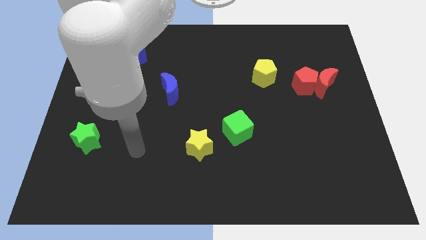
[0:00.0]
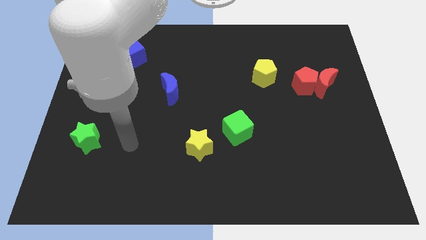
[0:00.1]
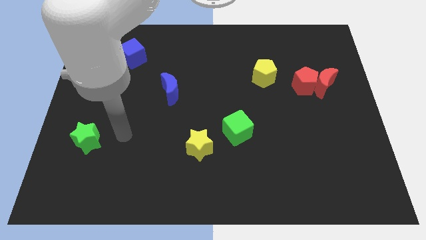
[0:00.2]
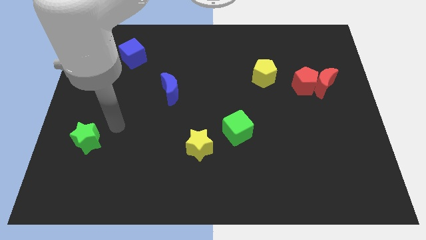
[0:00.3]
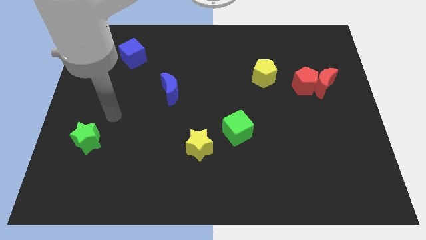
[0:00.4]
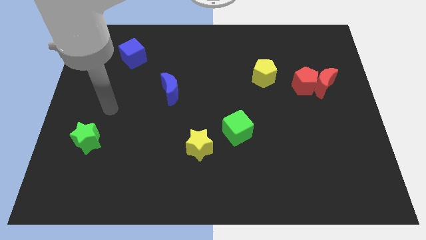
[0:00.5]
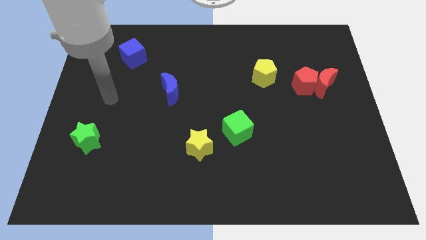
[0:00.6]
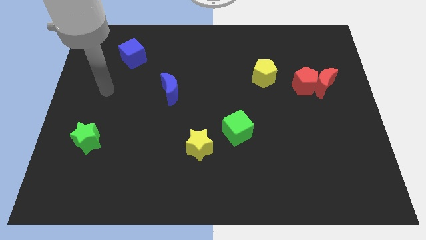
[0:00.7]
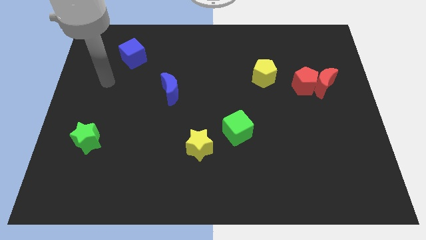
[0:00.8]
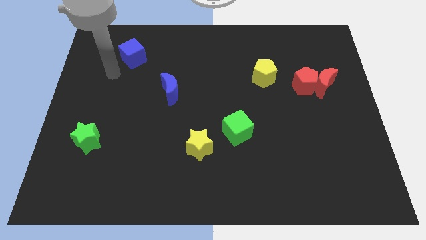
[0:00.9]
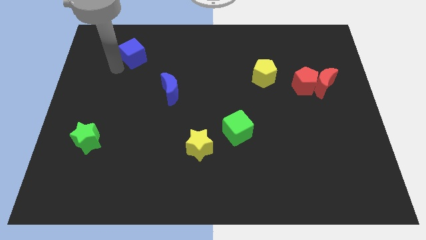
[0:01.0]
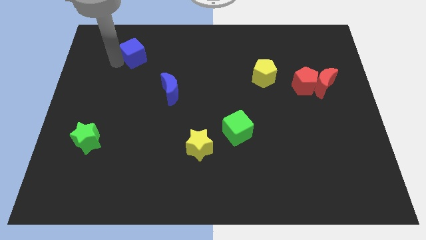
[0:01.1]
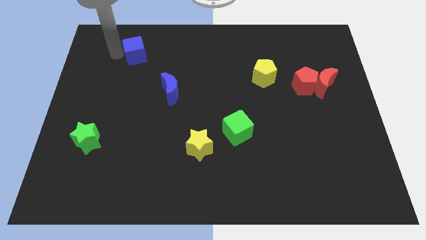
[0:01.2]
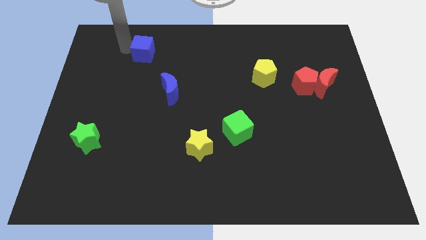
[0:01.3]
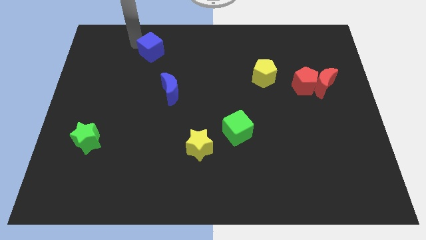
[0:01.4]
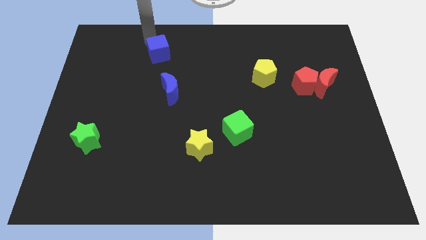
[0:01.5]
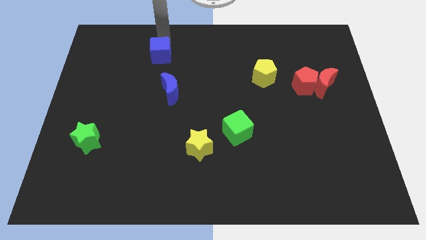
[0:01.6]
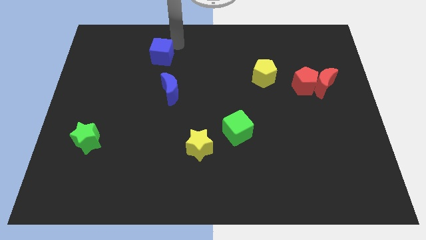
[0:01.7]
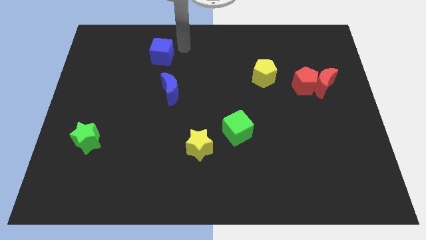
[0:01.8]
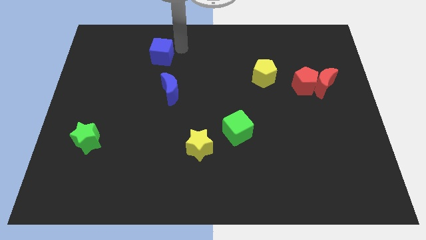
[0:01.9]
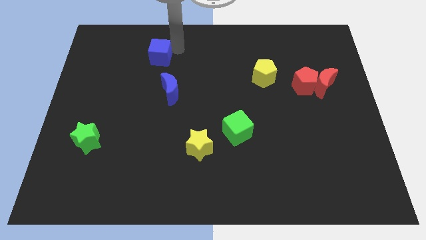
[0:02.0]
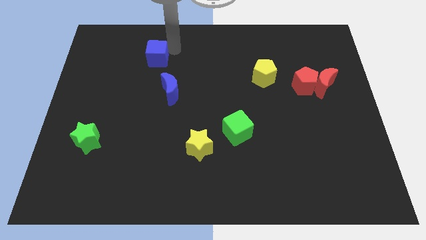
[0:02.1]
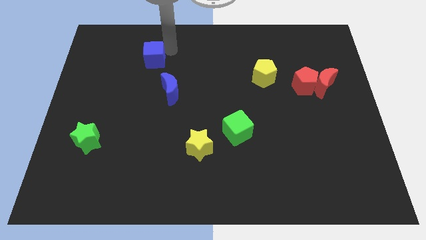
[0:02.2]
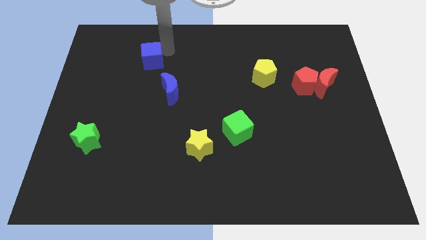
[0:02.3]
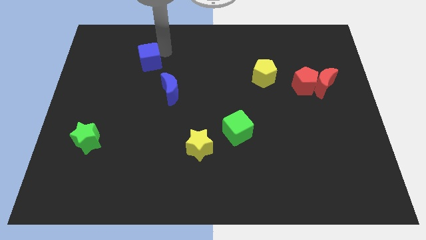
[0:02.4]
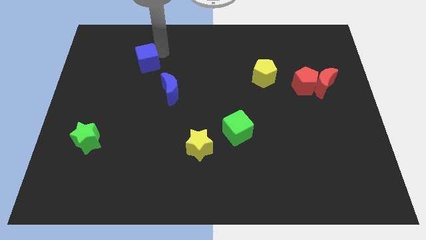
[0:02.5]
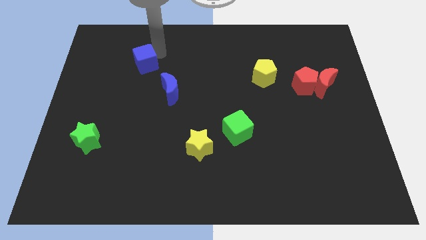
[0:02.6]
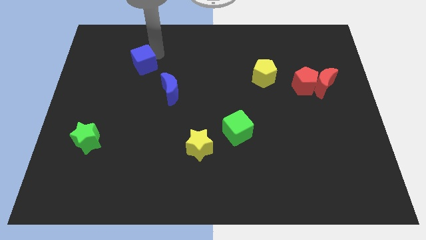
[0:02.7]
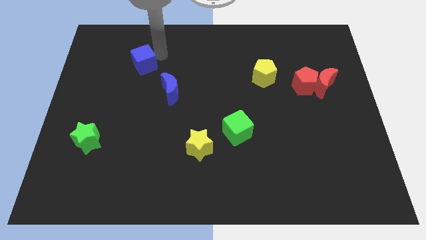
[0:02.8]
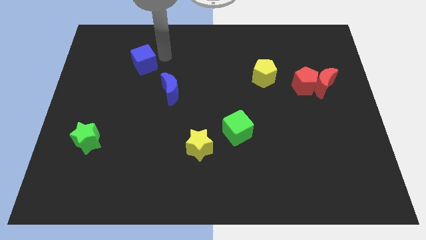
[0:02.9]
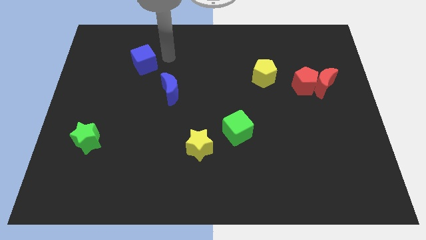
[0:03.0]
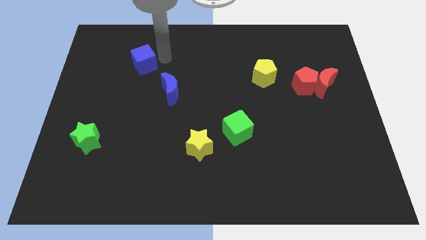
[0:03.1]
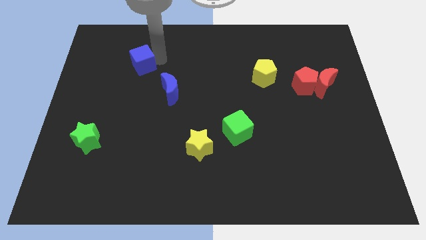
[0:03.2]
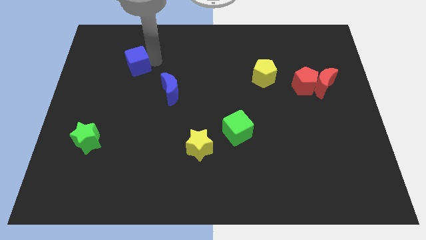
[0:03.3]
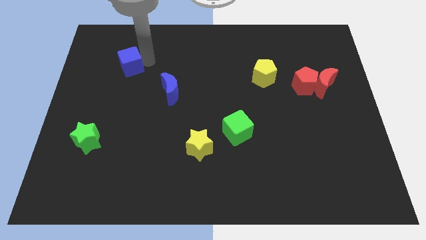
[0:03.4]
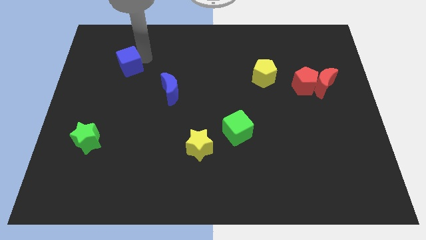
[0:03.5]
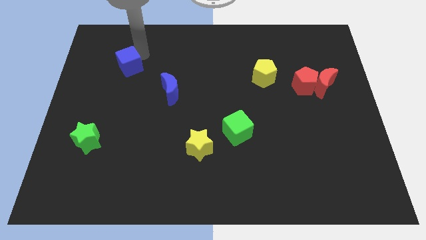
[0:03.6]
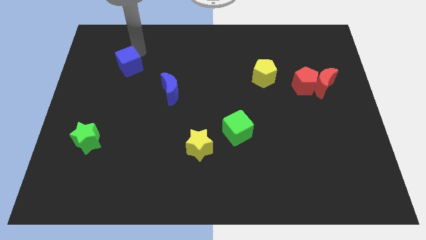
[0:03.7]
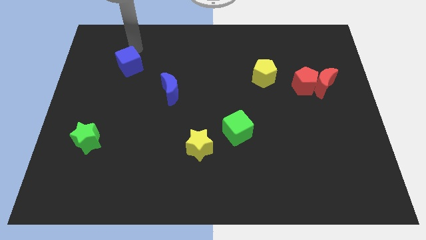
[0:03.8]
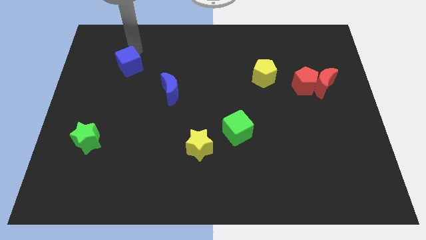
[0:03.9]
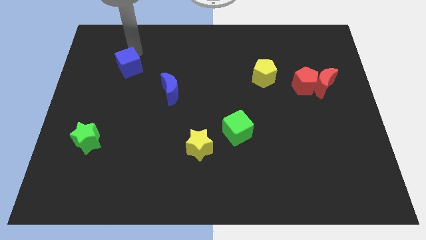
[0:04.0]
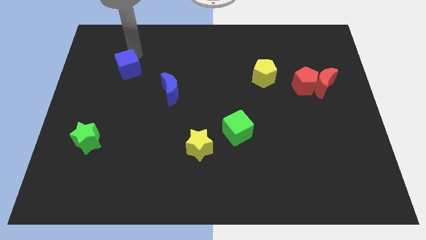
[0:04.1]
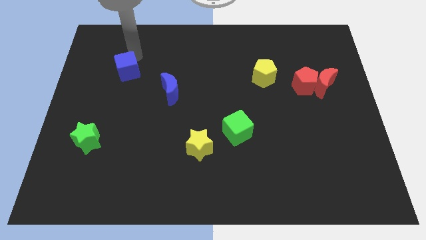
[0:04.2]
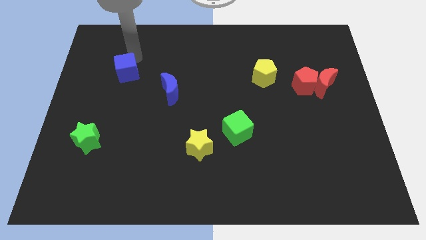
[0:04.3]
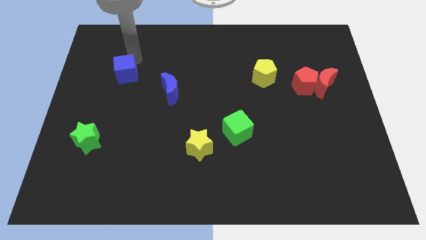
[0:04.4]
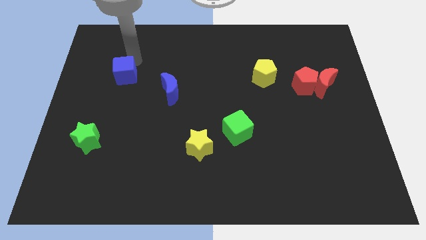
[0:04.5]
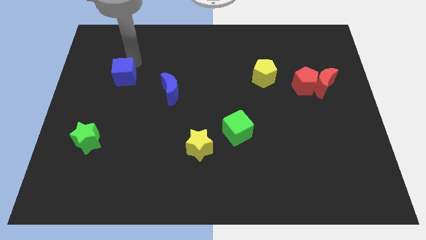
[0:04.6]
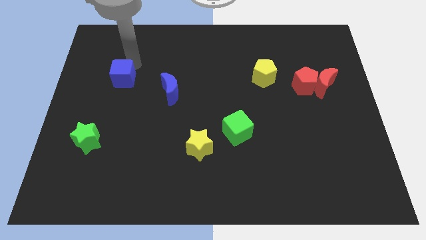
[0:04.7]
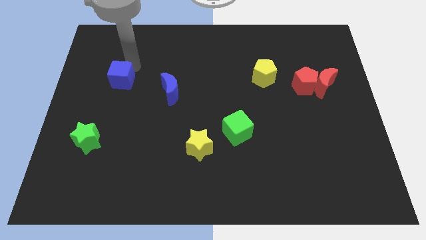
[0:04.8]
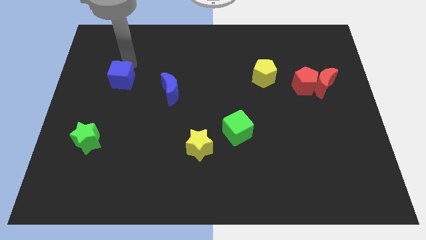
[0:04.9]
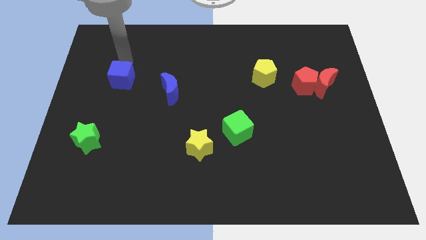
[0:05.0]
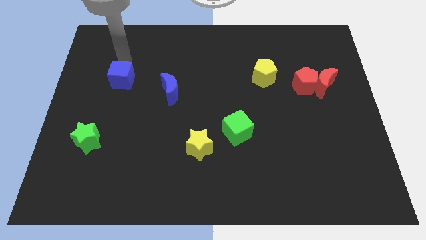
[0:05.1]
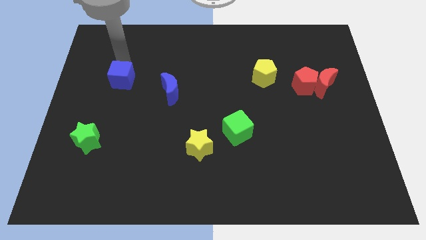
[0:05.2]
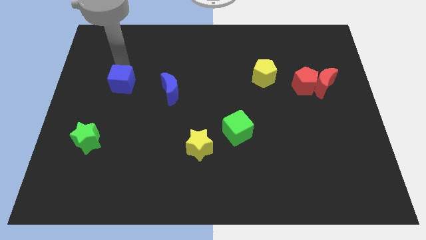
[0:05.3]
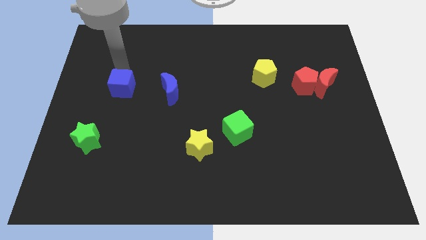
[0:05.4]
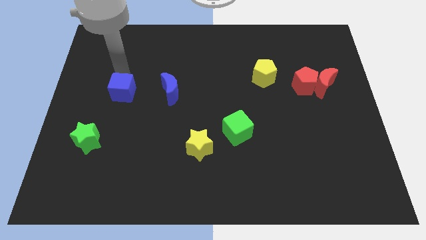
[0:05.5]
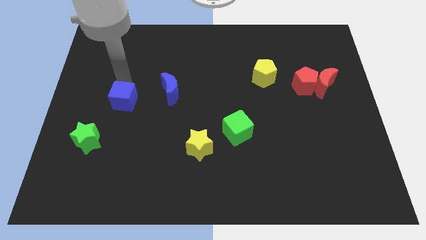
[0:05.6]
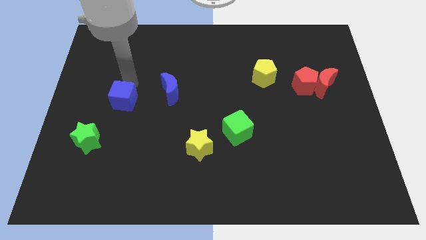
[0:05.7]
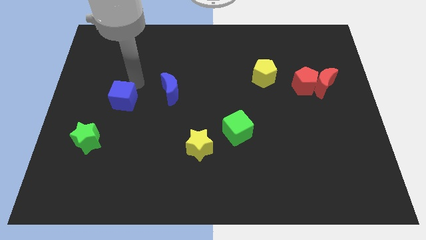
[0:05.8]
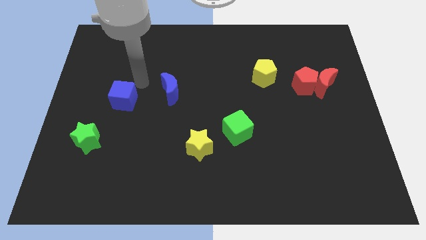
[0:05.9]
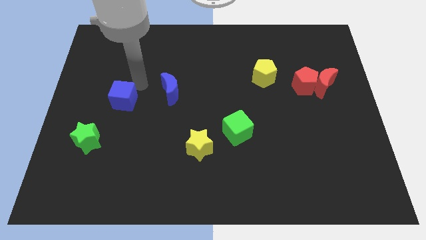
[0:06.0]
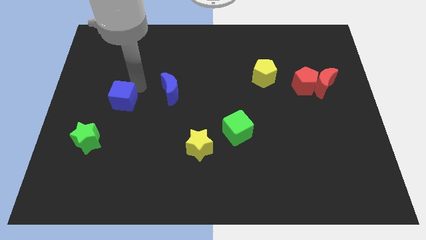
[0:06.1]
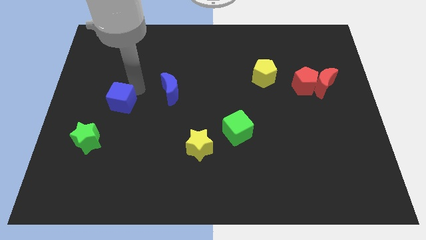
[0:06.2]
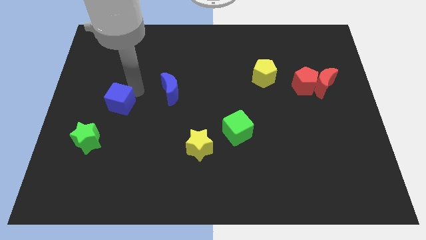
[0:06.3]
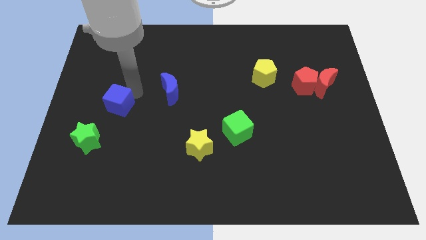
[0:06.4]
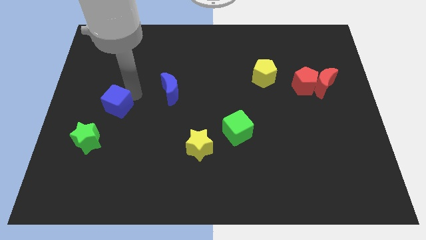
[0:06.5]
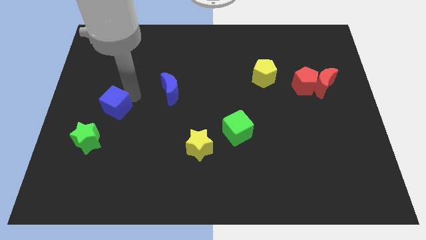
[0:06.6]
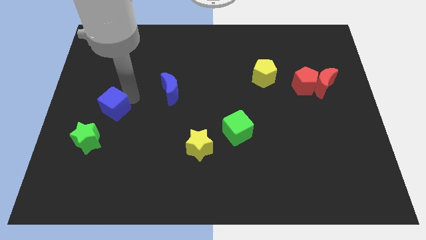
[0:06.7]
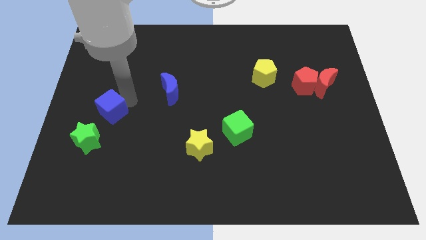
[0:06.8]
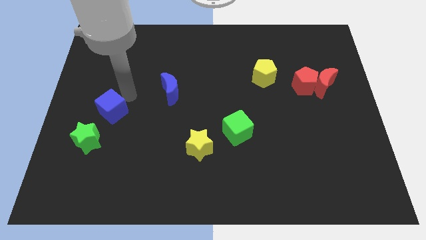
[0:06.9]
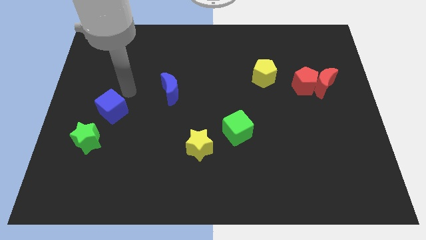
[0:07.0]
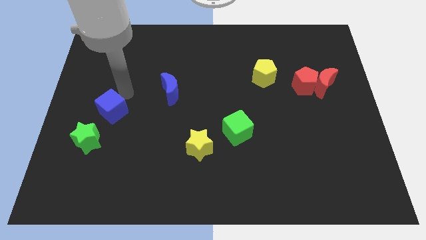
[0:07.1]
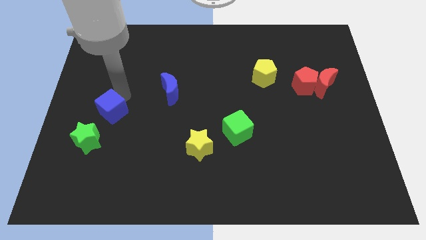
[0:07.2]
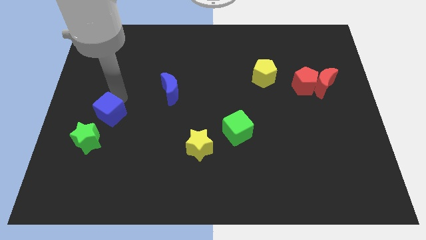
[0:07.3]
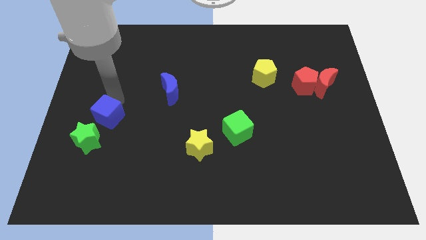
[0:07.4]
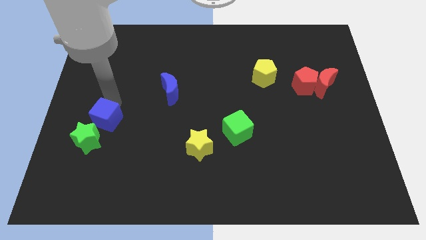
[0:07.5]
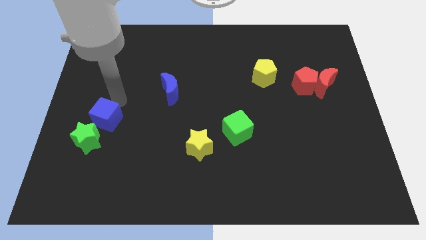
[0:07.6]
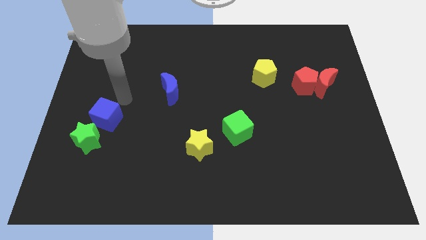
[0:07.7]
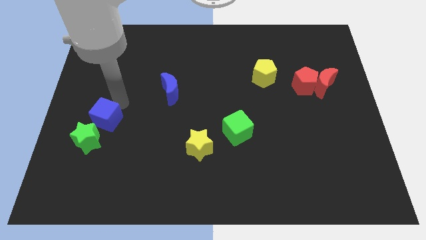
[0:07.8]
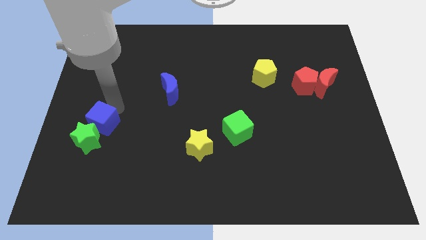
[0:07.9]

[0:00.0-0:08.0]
push the blue cube towards the green star
